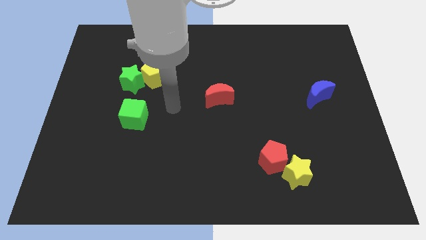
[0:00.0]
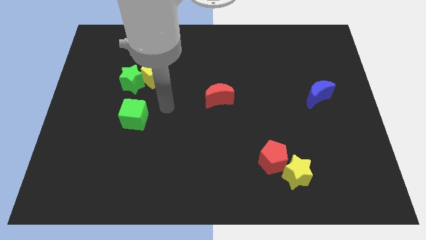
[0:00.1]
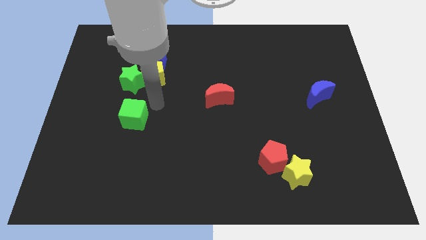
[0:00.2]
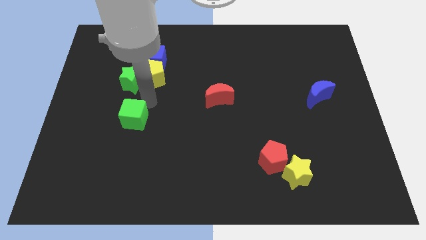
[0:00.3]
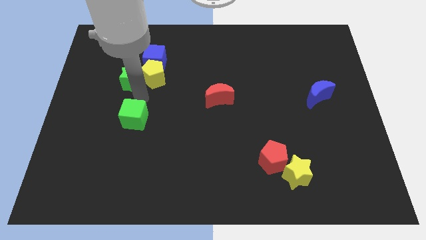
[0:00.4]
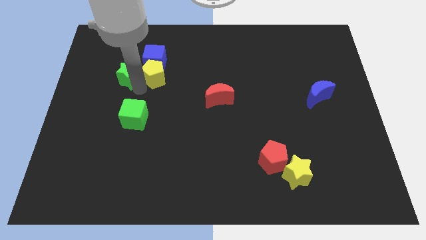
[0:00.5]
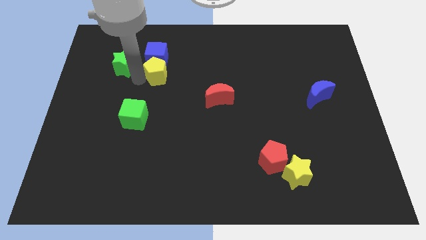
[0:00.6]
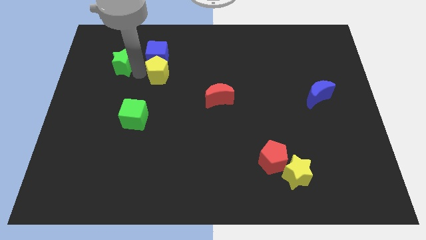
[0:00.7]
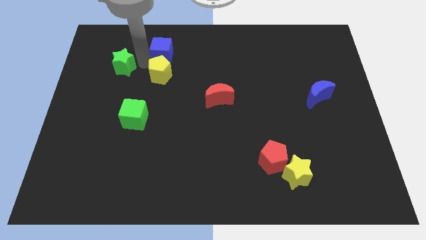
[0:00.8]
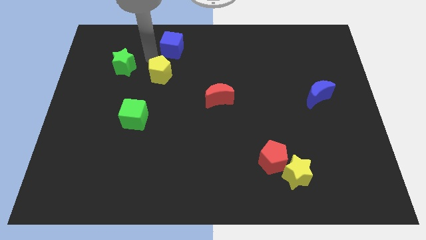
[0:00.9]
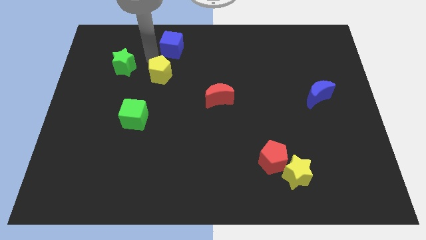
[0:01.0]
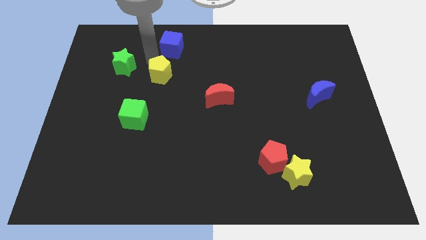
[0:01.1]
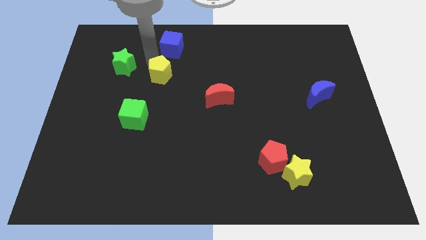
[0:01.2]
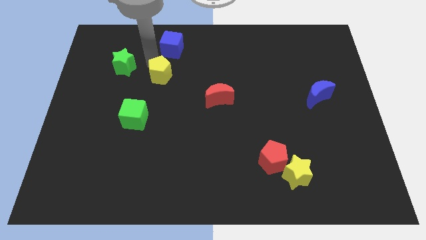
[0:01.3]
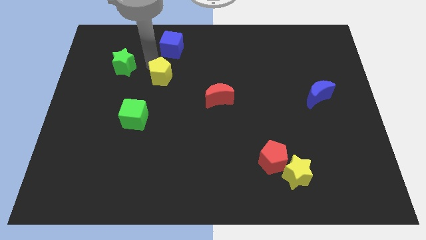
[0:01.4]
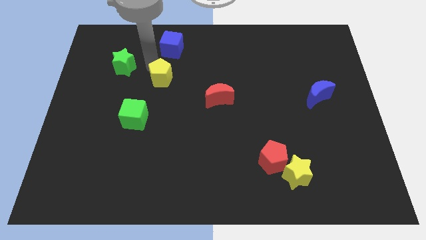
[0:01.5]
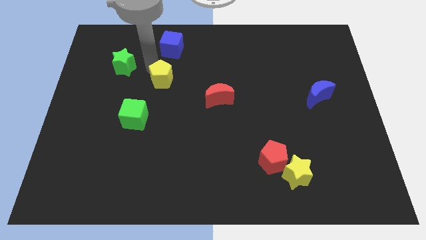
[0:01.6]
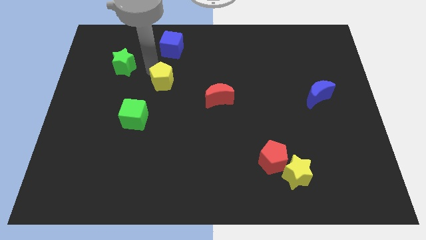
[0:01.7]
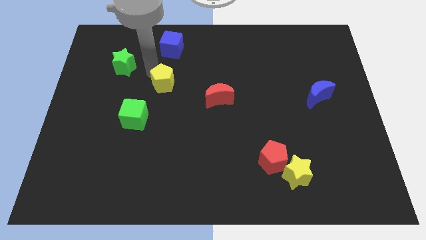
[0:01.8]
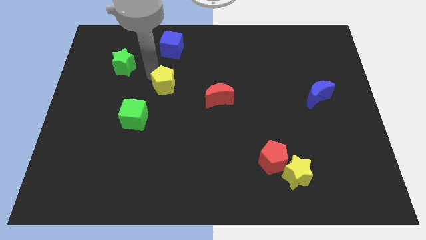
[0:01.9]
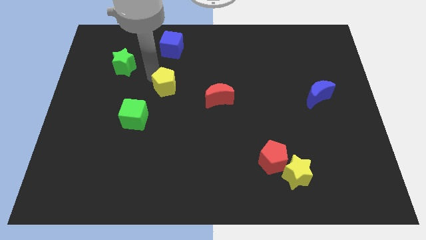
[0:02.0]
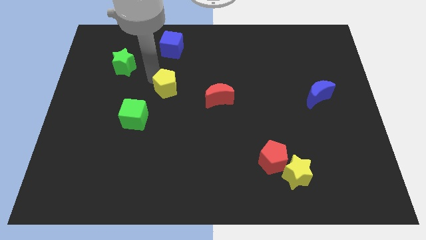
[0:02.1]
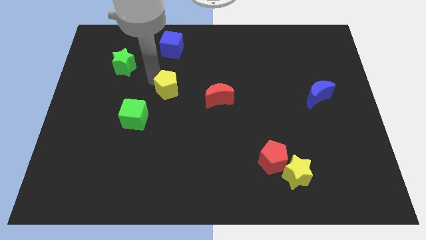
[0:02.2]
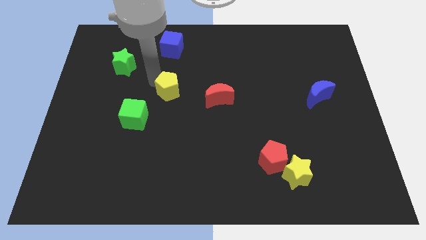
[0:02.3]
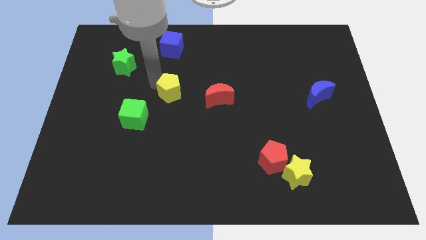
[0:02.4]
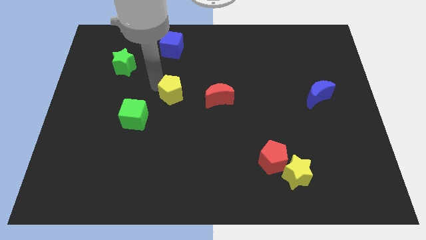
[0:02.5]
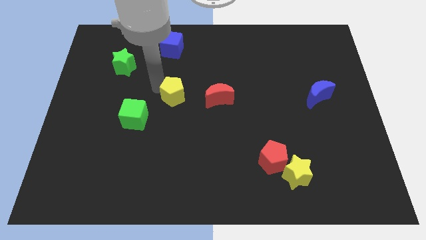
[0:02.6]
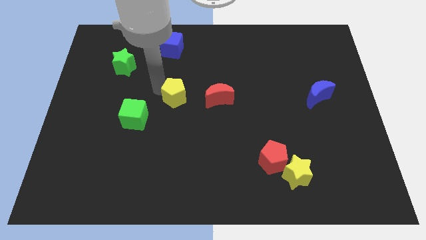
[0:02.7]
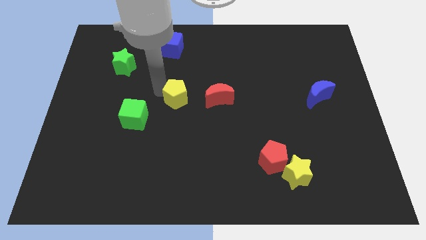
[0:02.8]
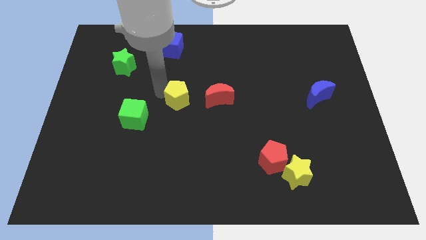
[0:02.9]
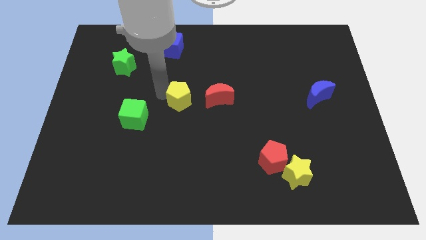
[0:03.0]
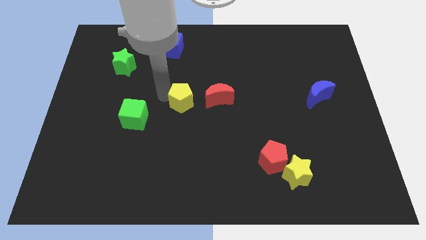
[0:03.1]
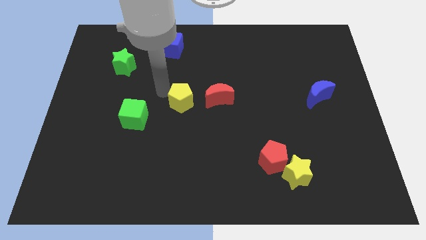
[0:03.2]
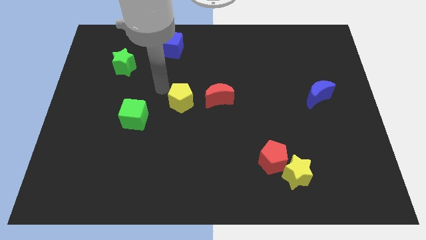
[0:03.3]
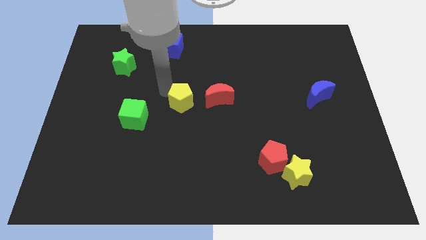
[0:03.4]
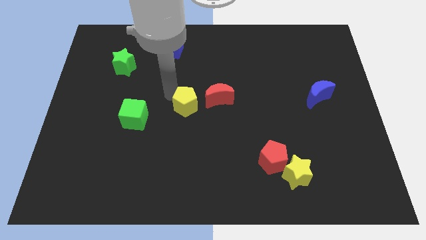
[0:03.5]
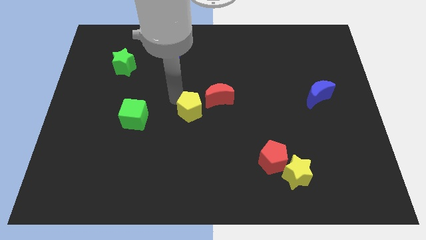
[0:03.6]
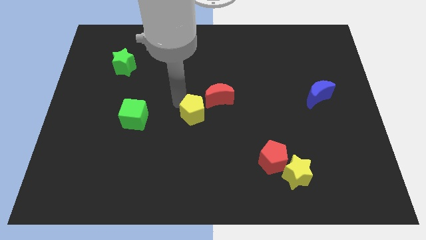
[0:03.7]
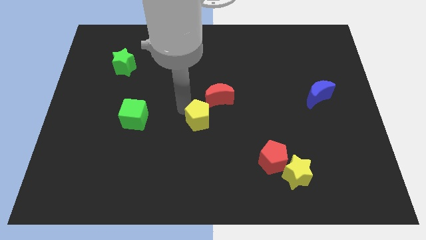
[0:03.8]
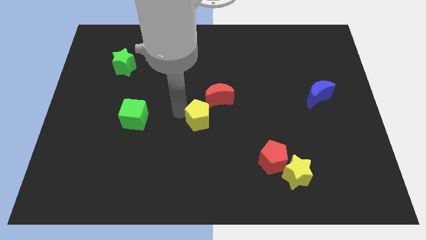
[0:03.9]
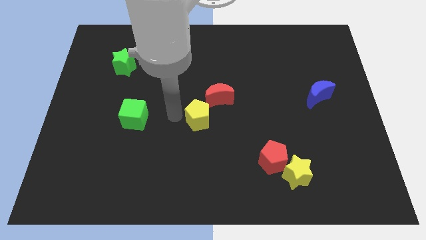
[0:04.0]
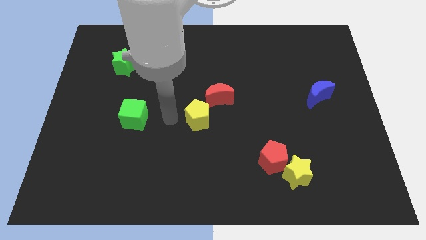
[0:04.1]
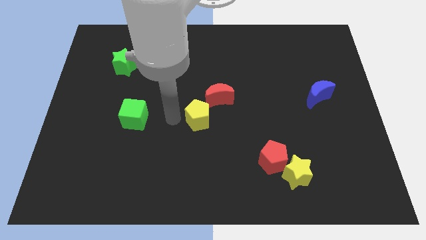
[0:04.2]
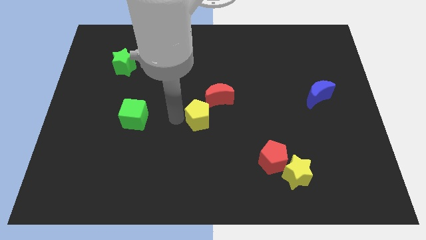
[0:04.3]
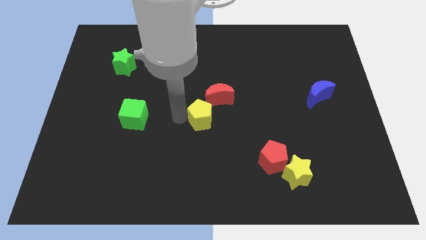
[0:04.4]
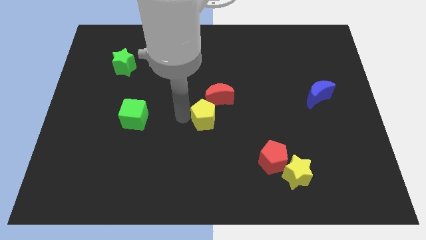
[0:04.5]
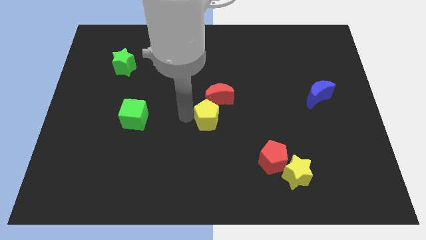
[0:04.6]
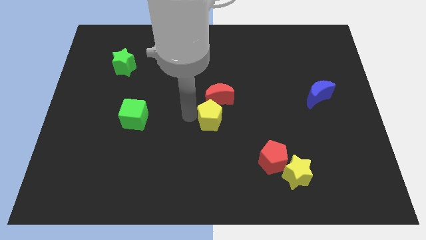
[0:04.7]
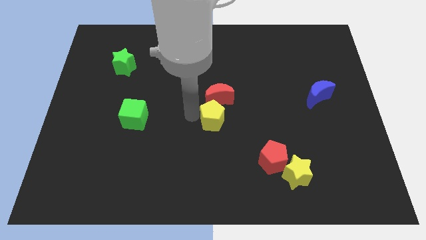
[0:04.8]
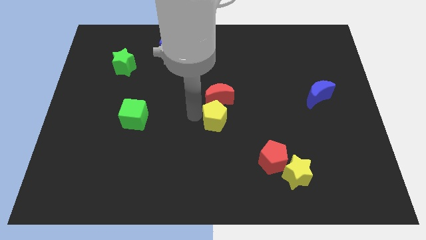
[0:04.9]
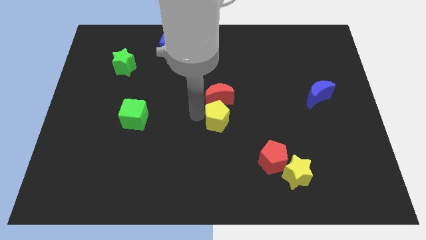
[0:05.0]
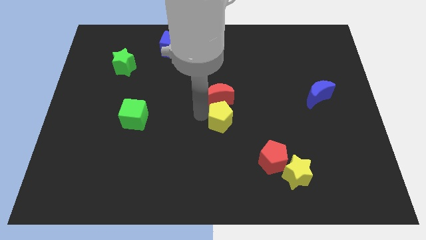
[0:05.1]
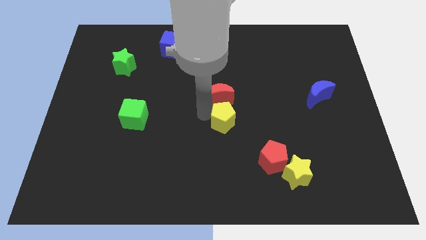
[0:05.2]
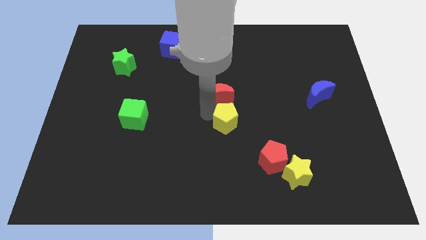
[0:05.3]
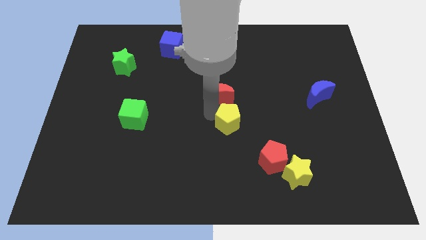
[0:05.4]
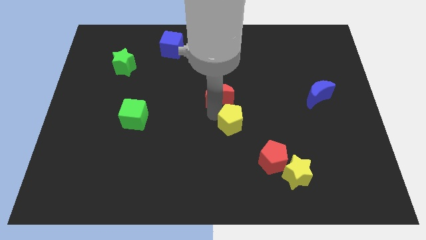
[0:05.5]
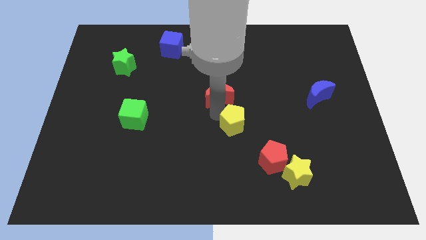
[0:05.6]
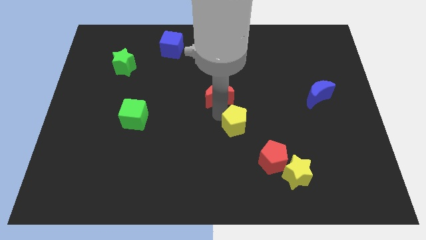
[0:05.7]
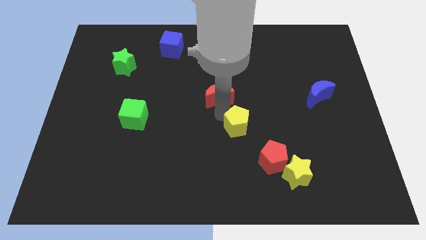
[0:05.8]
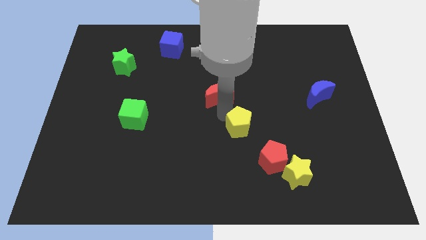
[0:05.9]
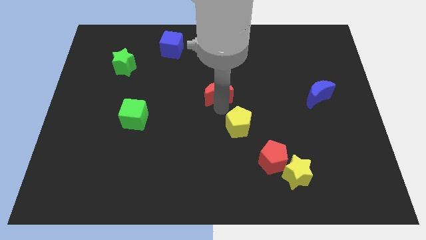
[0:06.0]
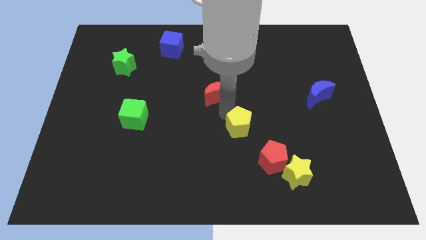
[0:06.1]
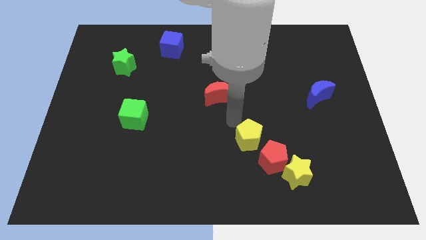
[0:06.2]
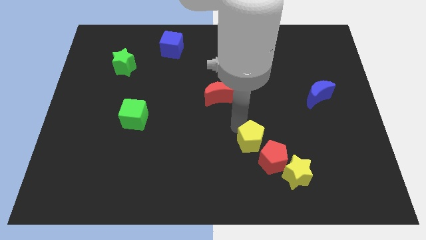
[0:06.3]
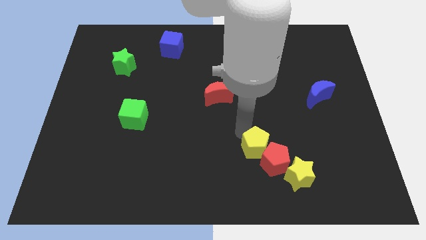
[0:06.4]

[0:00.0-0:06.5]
move the yellow pentagon next to the red pentagon

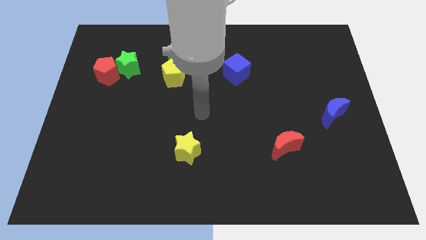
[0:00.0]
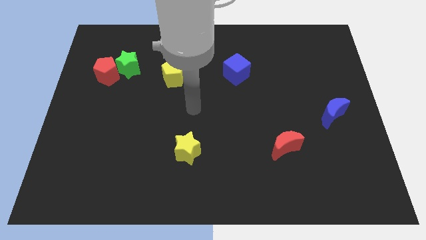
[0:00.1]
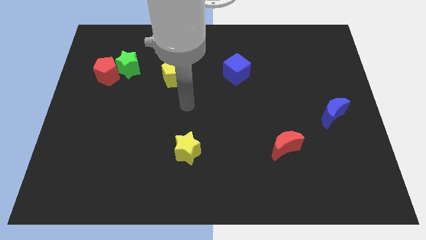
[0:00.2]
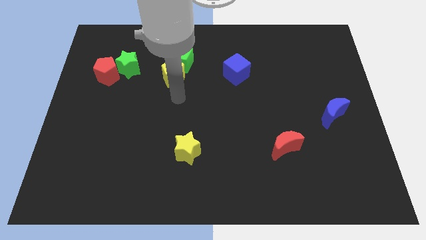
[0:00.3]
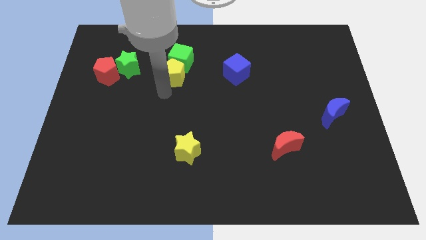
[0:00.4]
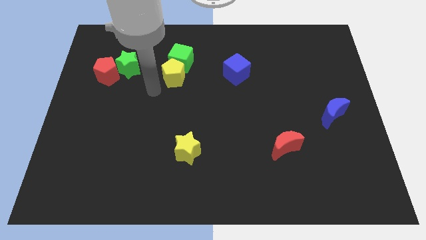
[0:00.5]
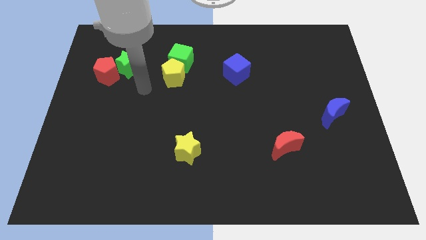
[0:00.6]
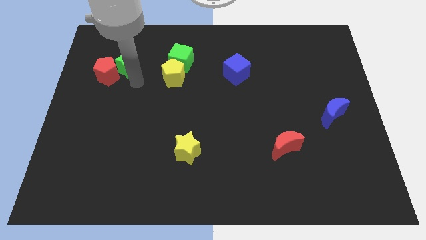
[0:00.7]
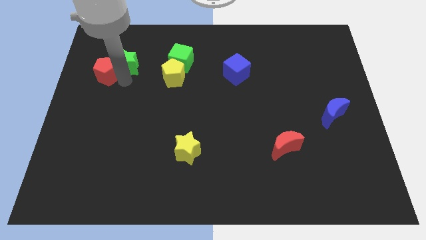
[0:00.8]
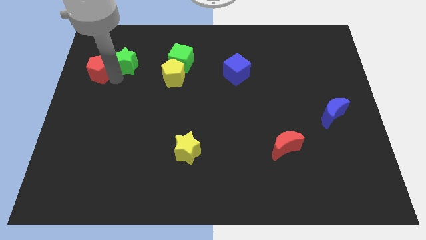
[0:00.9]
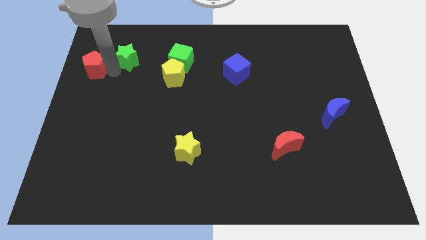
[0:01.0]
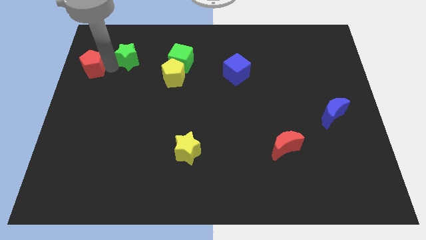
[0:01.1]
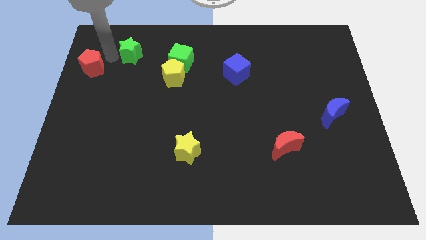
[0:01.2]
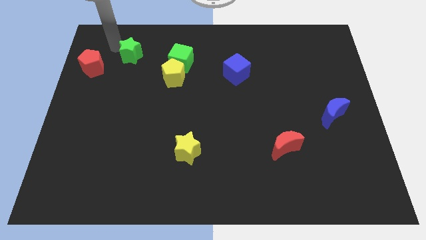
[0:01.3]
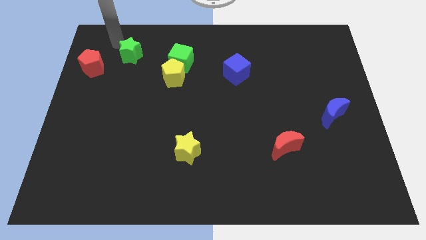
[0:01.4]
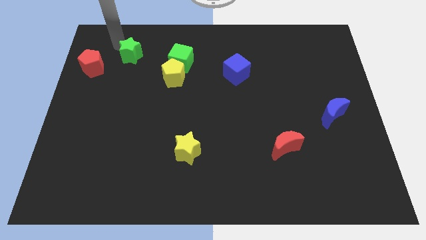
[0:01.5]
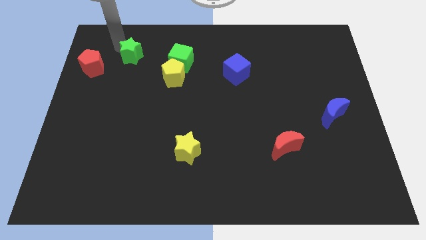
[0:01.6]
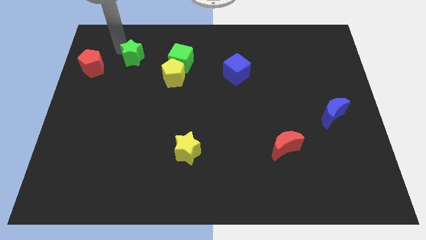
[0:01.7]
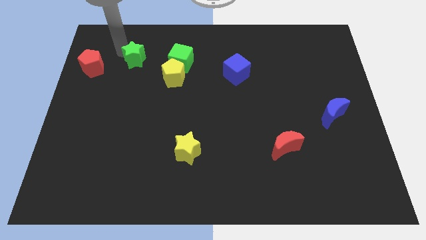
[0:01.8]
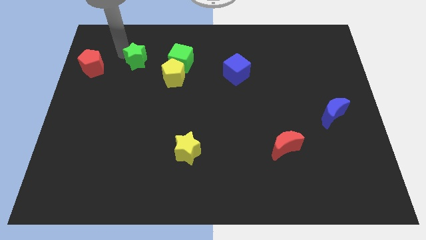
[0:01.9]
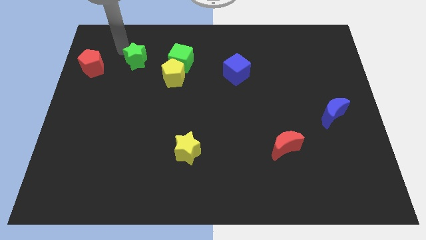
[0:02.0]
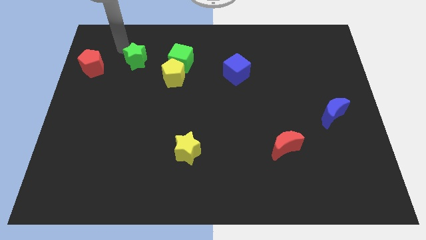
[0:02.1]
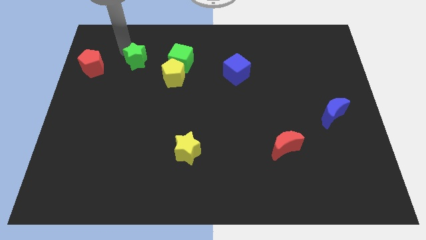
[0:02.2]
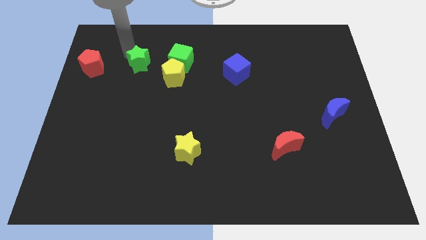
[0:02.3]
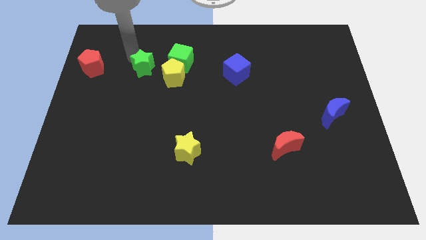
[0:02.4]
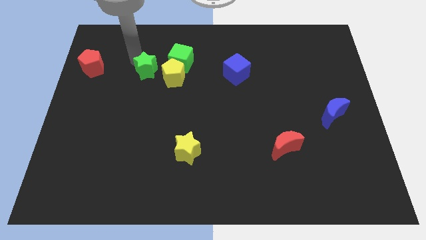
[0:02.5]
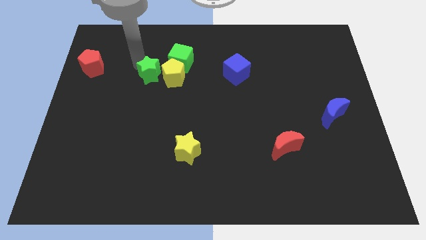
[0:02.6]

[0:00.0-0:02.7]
slide the green star towards the yellow pentagon
